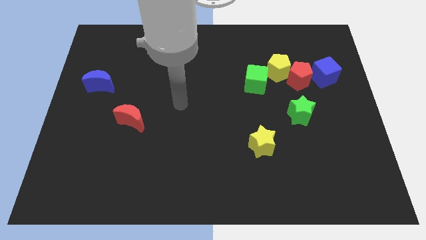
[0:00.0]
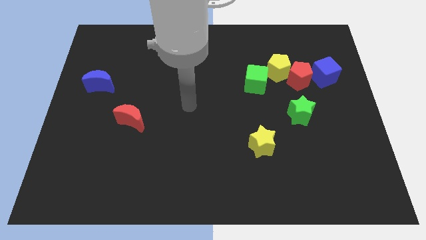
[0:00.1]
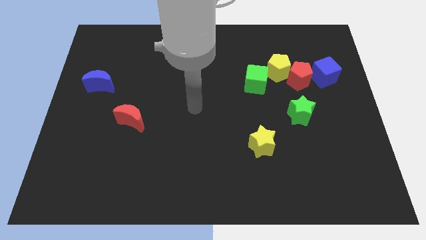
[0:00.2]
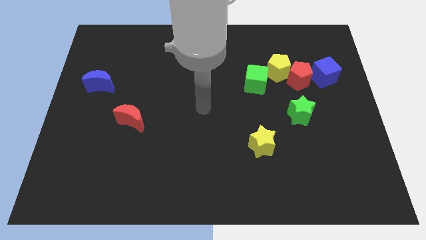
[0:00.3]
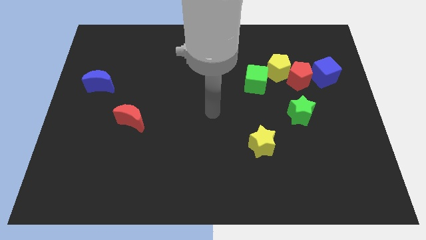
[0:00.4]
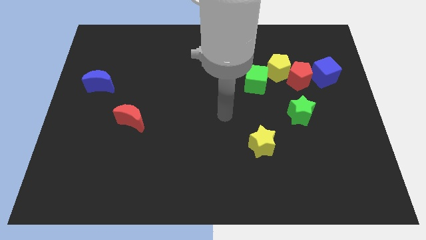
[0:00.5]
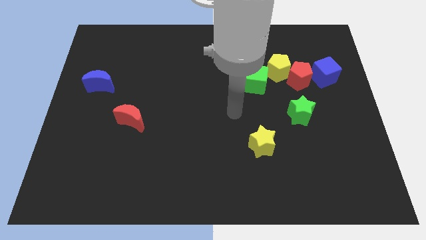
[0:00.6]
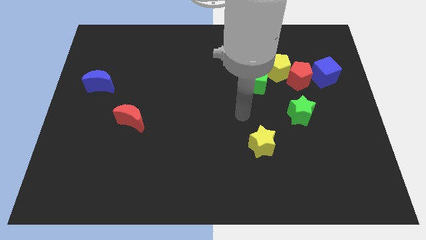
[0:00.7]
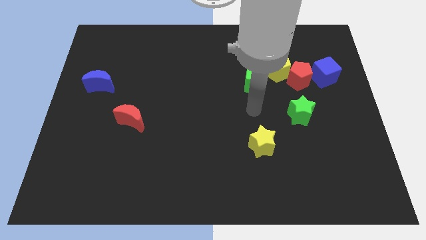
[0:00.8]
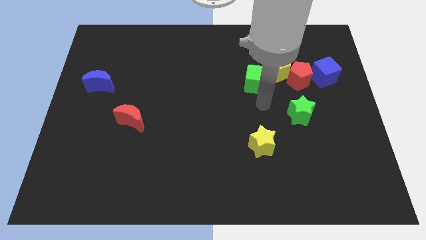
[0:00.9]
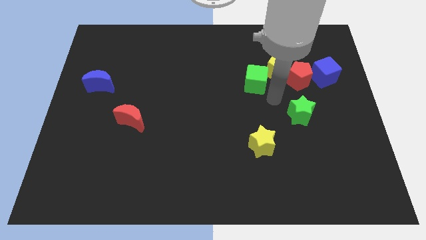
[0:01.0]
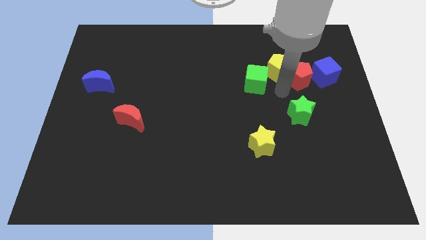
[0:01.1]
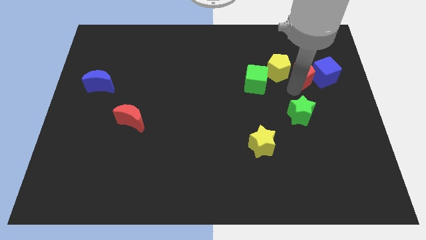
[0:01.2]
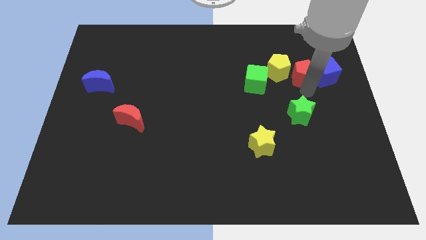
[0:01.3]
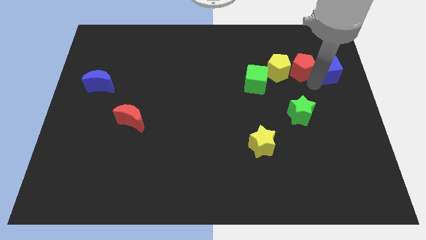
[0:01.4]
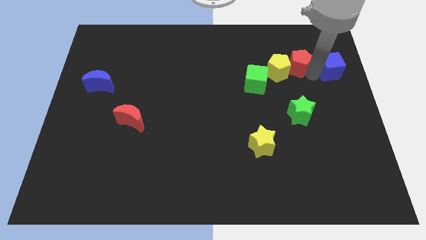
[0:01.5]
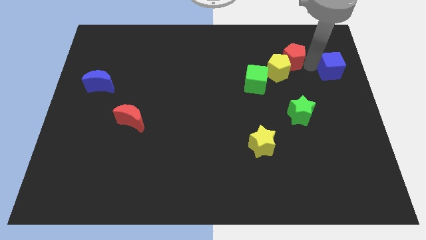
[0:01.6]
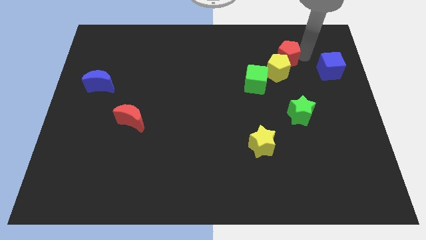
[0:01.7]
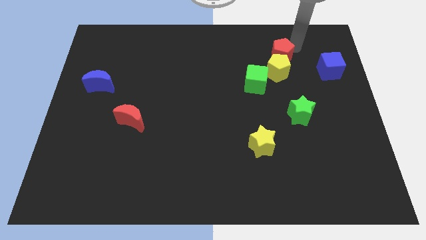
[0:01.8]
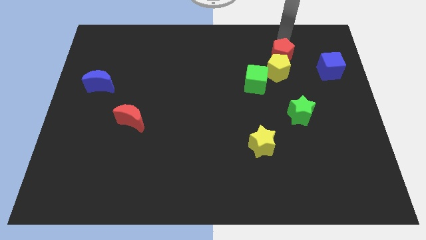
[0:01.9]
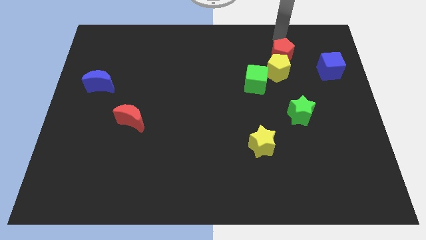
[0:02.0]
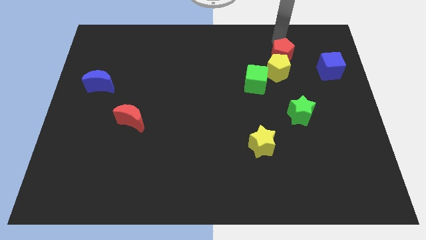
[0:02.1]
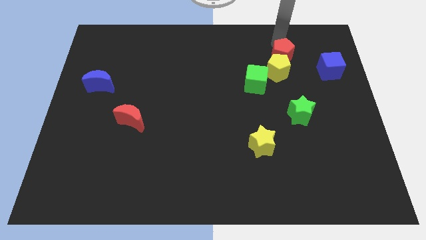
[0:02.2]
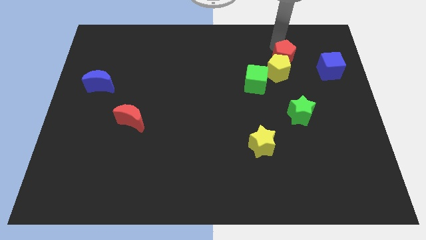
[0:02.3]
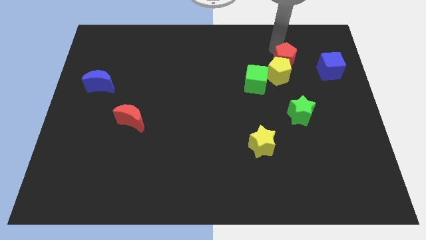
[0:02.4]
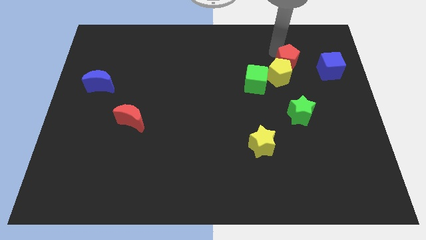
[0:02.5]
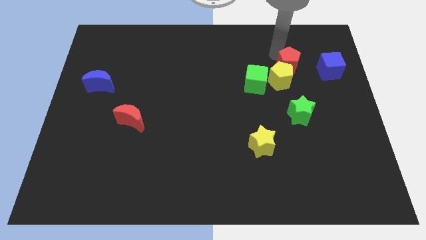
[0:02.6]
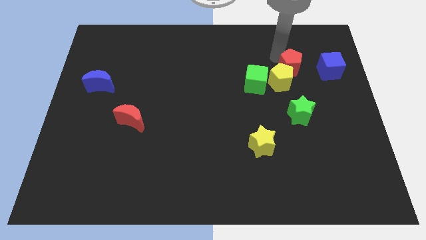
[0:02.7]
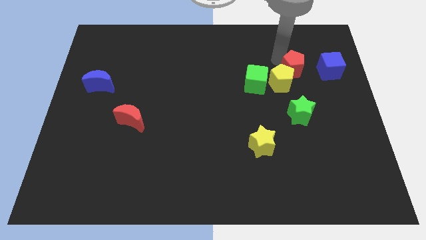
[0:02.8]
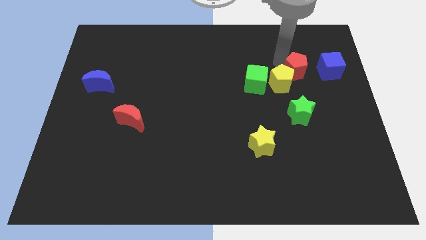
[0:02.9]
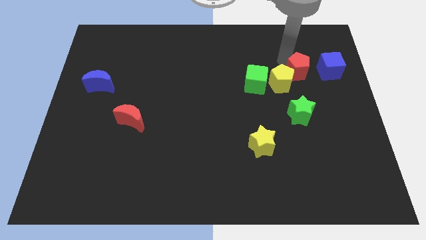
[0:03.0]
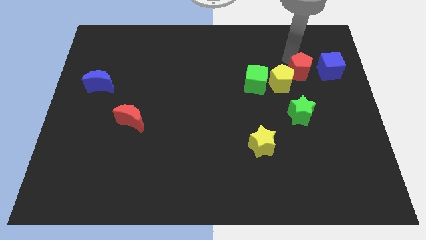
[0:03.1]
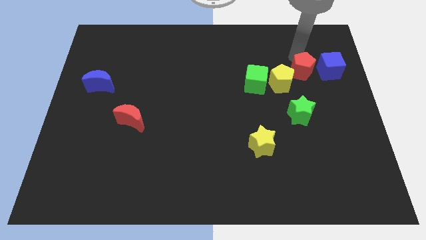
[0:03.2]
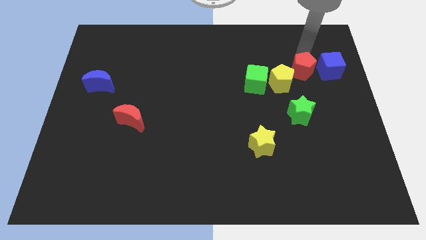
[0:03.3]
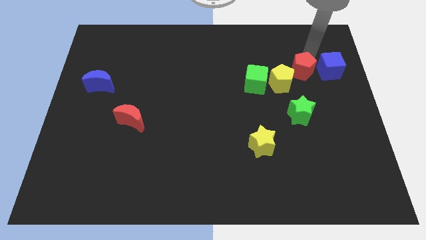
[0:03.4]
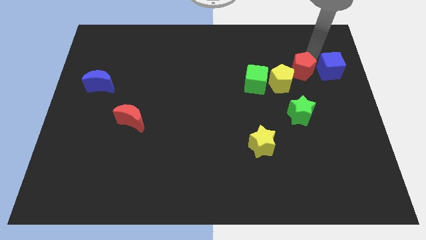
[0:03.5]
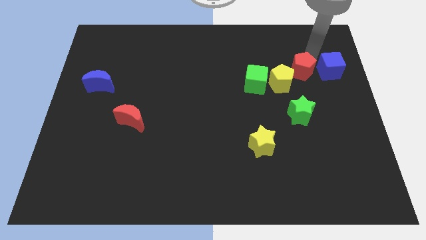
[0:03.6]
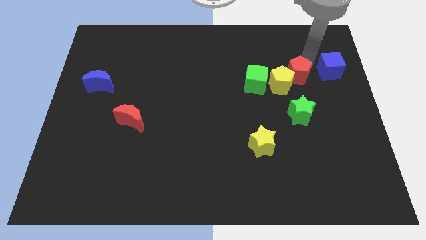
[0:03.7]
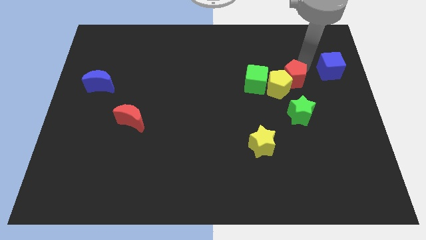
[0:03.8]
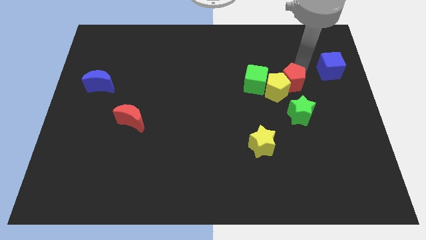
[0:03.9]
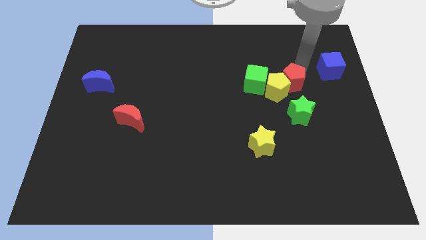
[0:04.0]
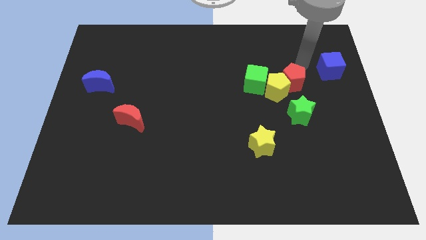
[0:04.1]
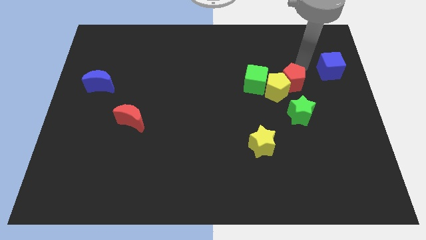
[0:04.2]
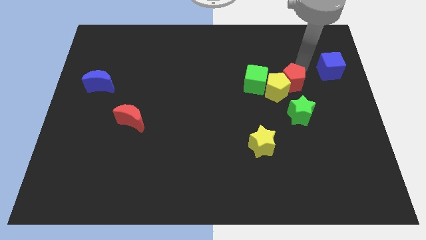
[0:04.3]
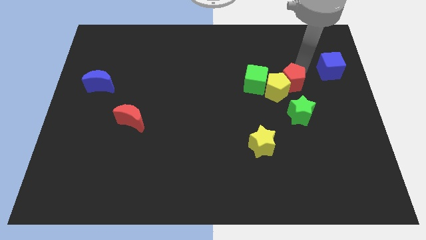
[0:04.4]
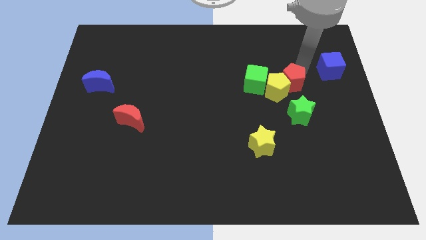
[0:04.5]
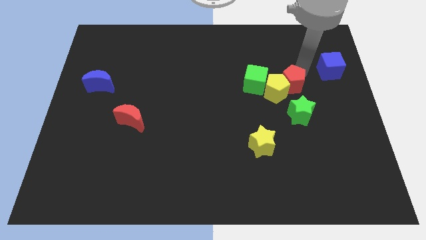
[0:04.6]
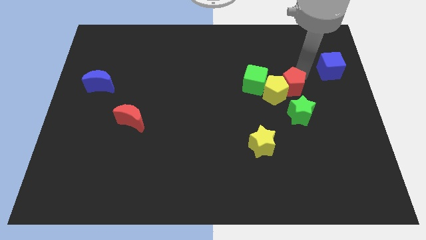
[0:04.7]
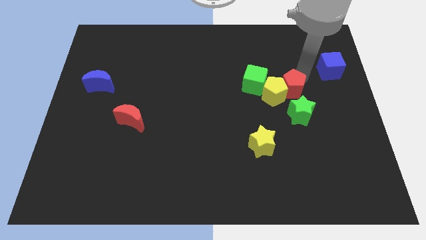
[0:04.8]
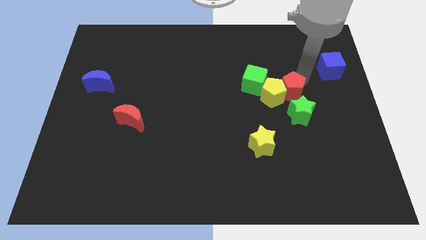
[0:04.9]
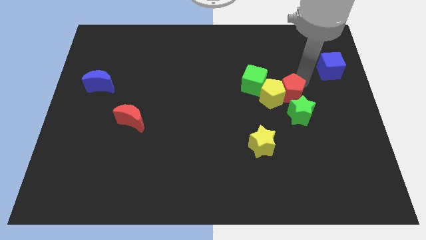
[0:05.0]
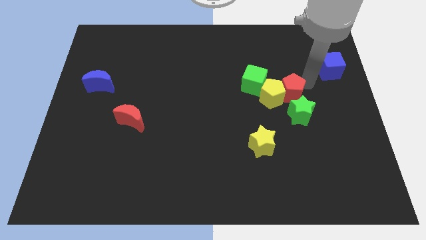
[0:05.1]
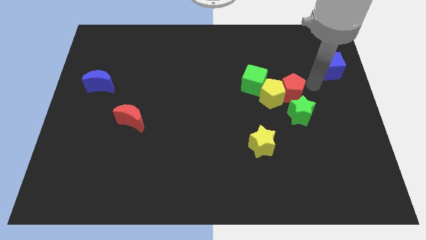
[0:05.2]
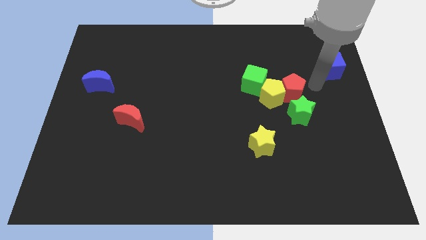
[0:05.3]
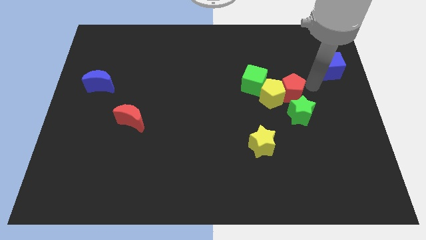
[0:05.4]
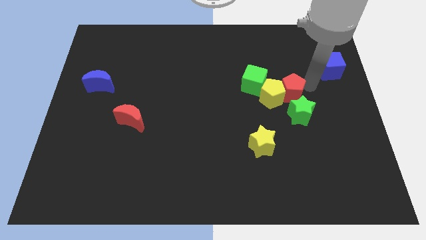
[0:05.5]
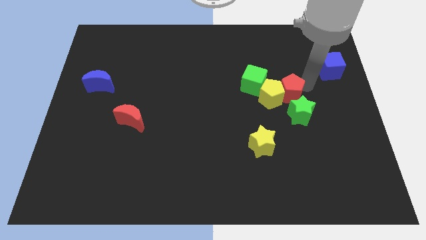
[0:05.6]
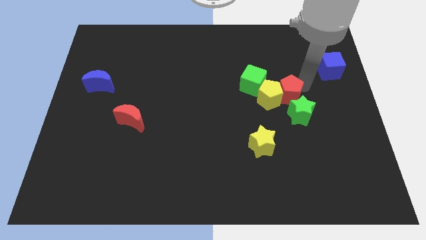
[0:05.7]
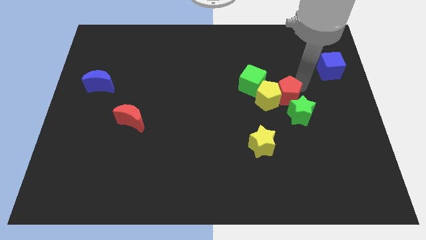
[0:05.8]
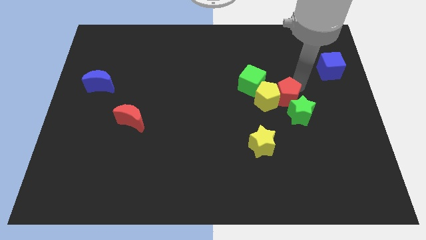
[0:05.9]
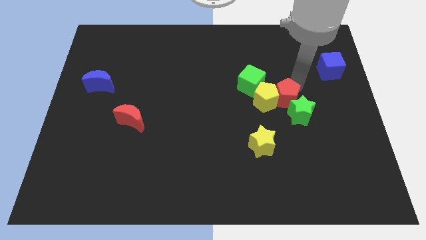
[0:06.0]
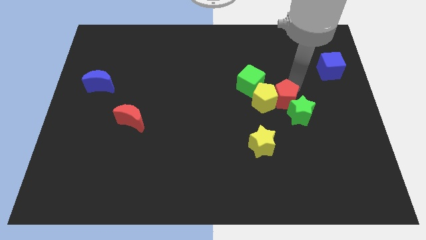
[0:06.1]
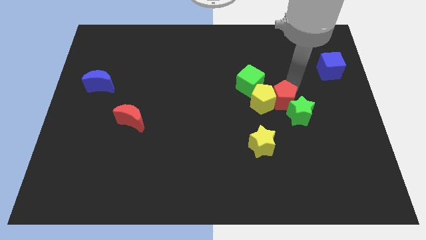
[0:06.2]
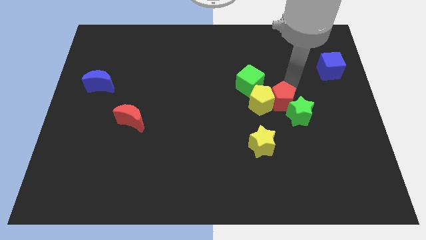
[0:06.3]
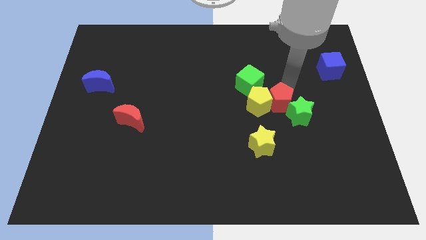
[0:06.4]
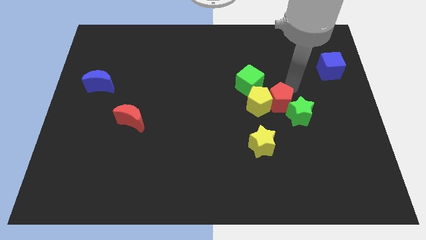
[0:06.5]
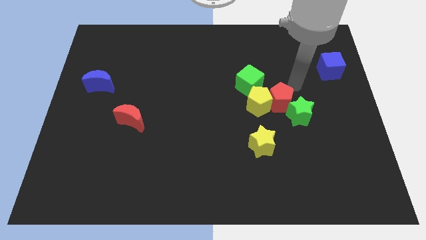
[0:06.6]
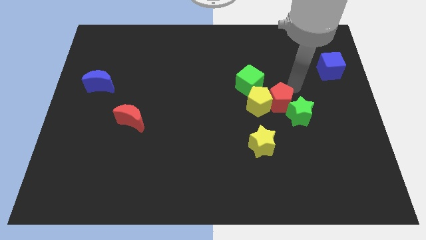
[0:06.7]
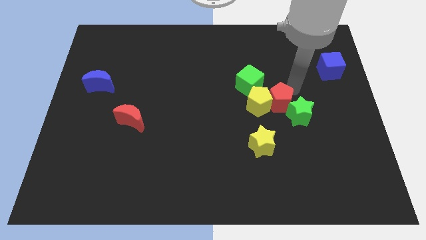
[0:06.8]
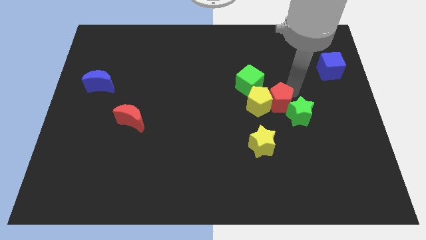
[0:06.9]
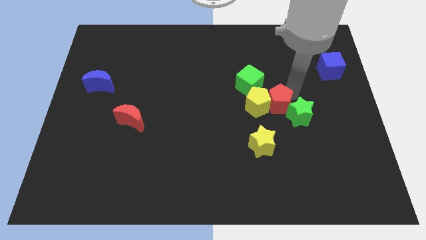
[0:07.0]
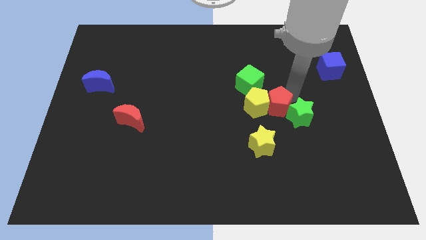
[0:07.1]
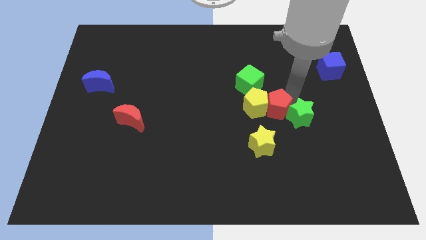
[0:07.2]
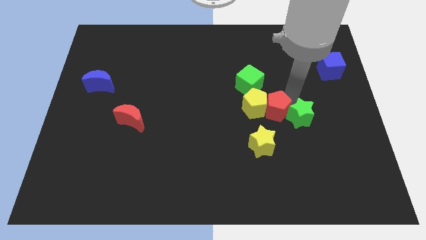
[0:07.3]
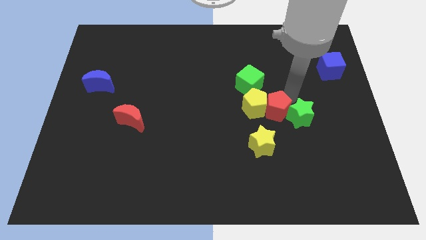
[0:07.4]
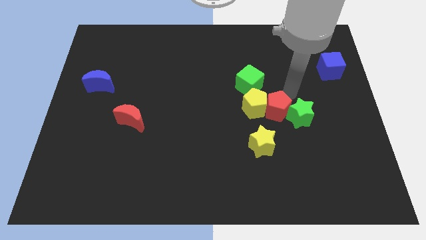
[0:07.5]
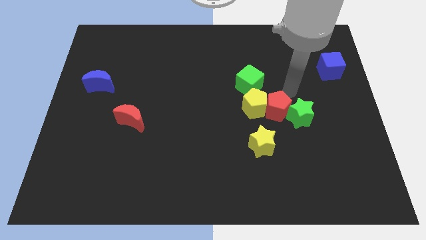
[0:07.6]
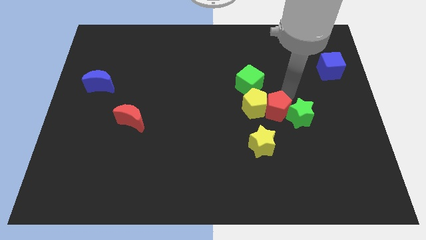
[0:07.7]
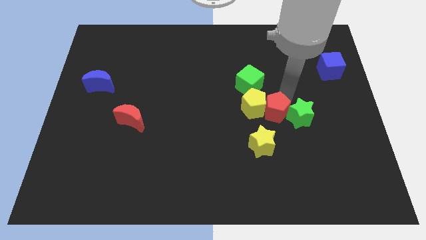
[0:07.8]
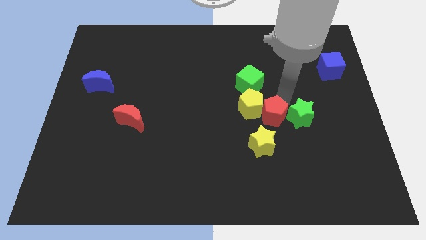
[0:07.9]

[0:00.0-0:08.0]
separate the red pentagon from the yellow pentagon and blue cube

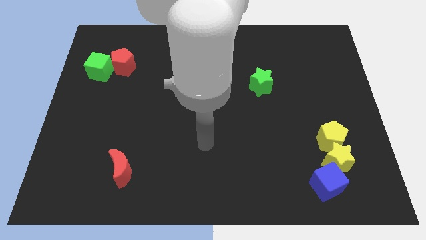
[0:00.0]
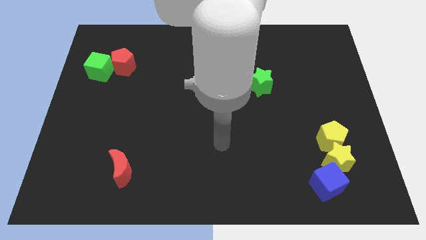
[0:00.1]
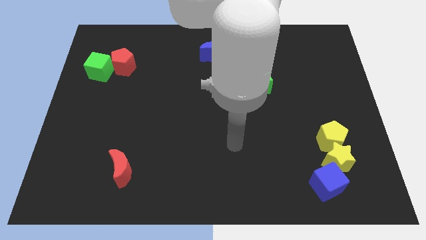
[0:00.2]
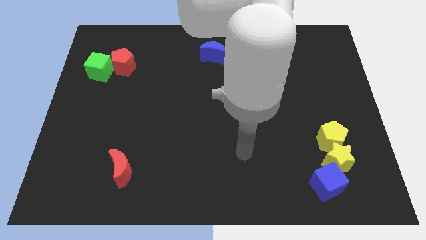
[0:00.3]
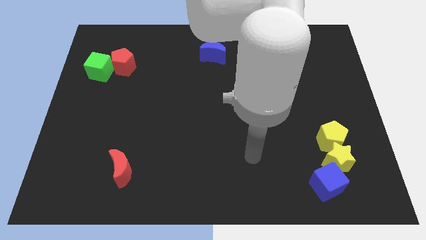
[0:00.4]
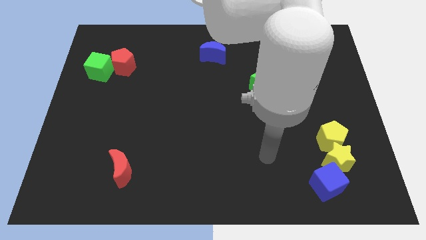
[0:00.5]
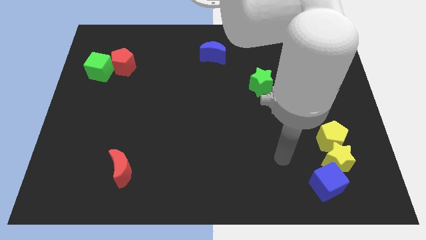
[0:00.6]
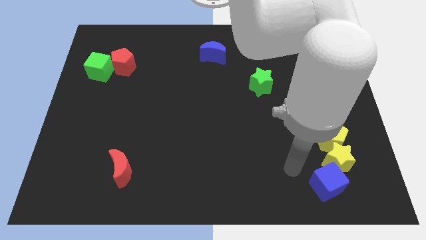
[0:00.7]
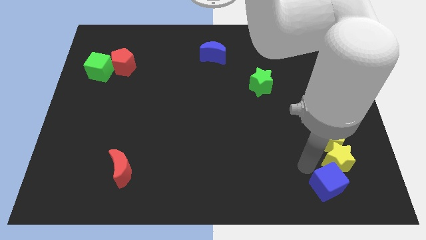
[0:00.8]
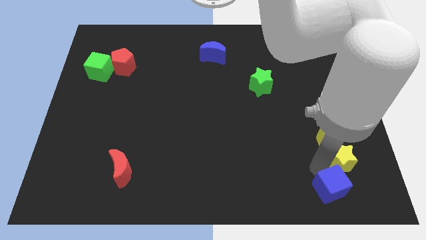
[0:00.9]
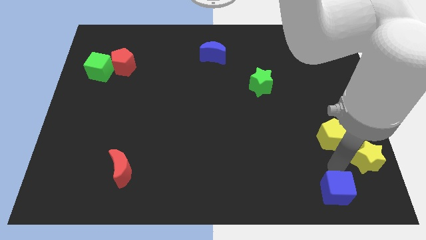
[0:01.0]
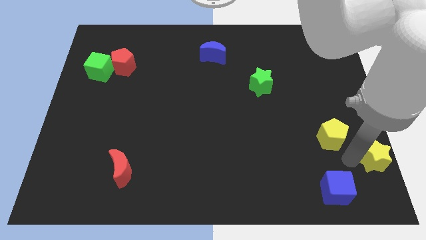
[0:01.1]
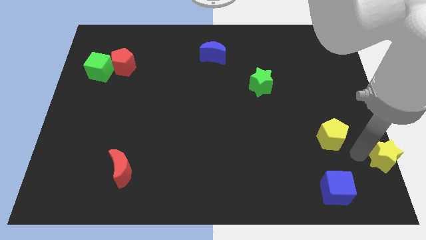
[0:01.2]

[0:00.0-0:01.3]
move the yellow pentagon away from the yellow star

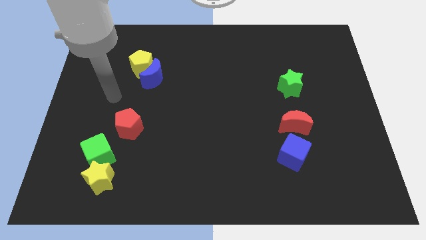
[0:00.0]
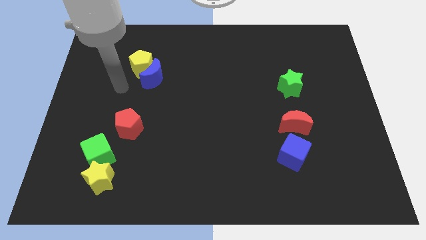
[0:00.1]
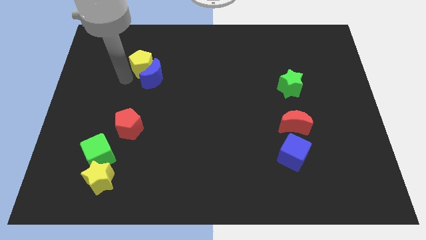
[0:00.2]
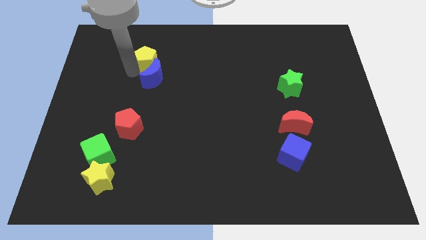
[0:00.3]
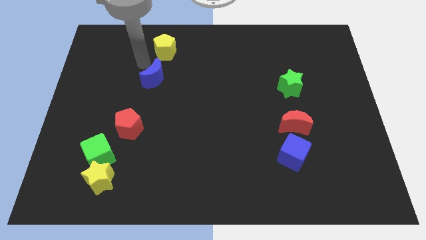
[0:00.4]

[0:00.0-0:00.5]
separate the blue moon from the yellow pentagon
